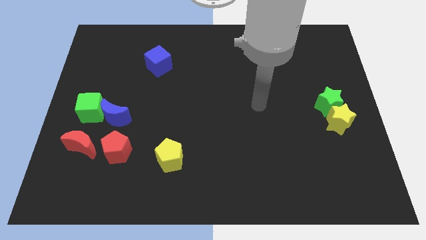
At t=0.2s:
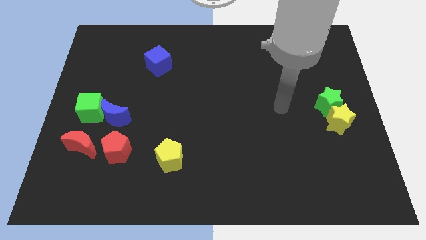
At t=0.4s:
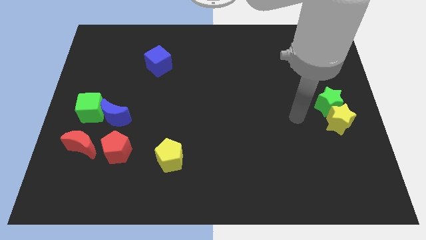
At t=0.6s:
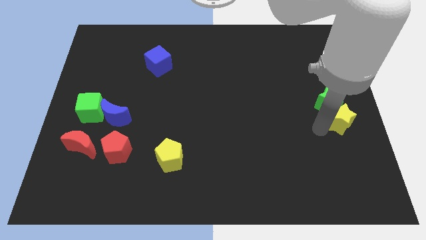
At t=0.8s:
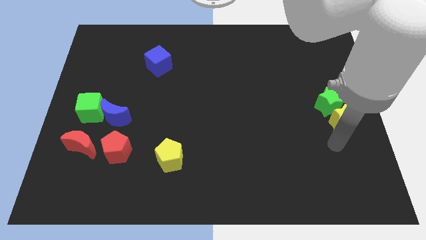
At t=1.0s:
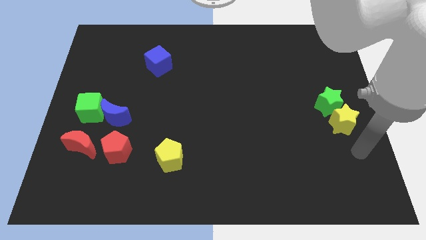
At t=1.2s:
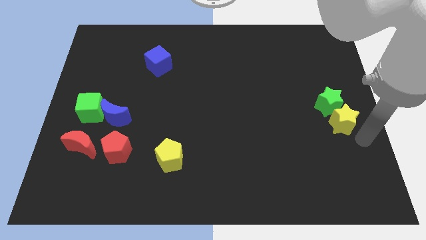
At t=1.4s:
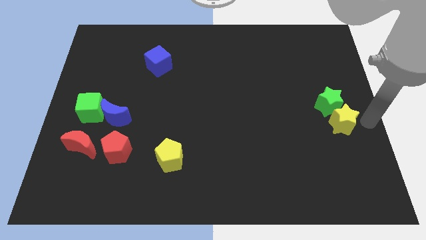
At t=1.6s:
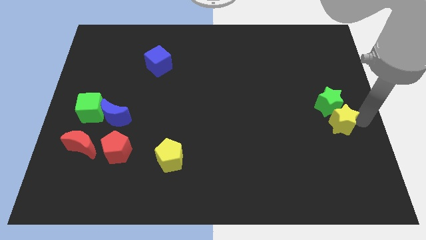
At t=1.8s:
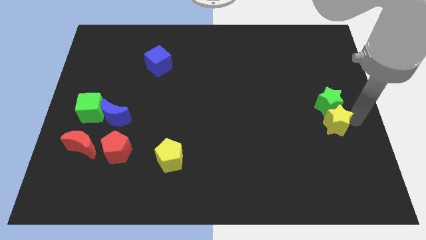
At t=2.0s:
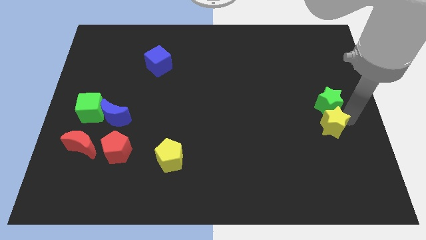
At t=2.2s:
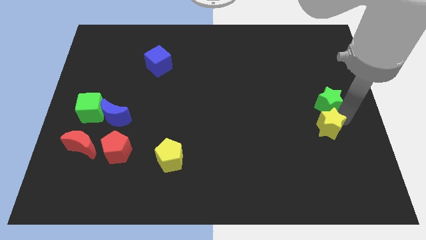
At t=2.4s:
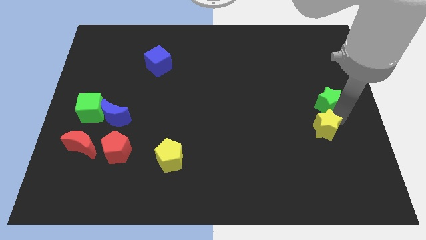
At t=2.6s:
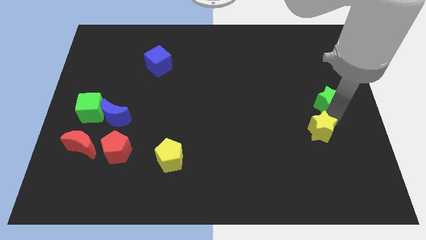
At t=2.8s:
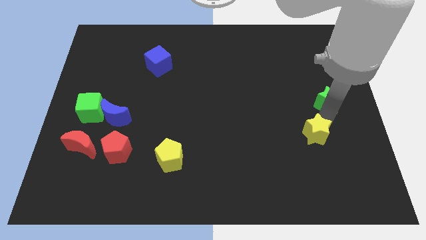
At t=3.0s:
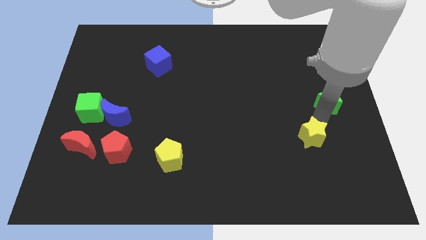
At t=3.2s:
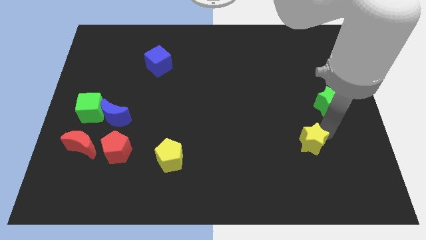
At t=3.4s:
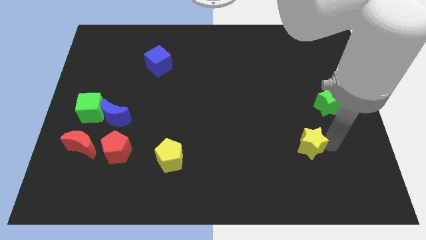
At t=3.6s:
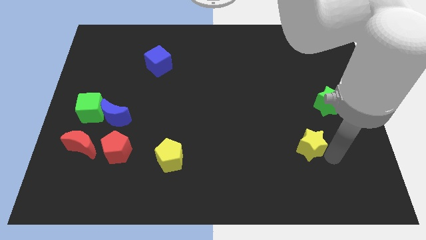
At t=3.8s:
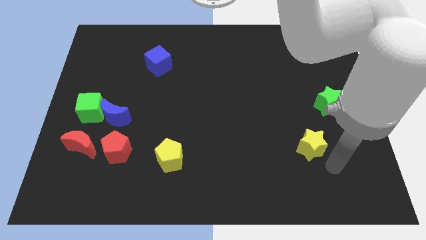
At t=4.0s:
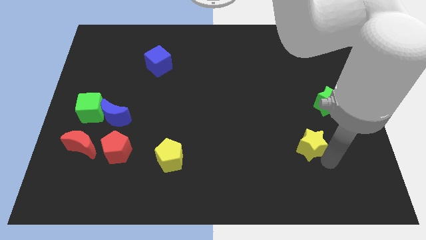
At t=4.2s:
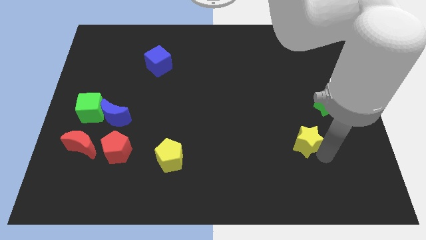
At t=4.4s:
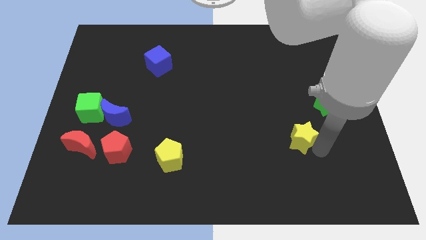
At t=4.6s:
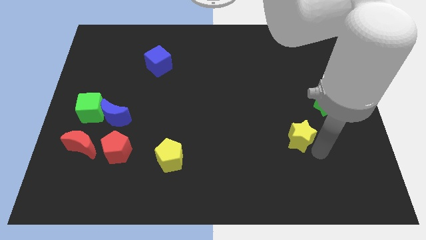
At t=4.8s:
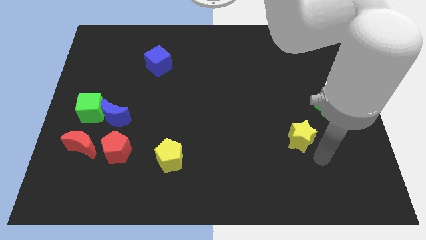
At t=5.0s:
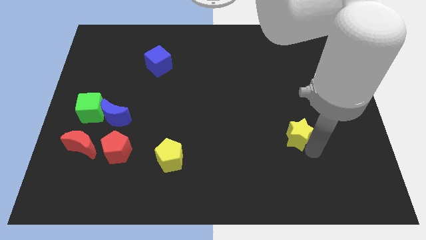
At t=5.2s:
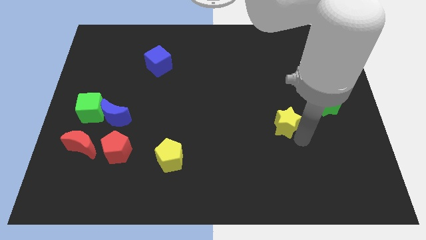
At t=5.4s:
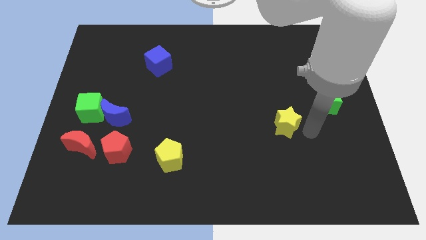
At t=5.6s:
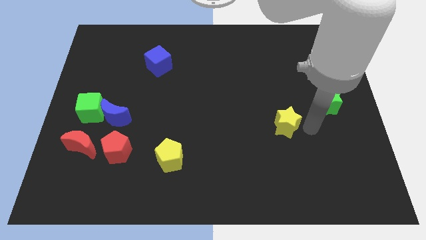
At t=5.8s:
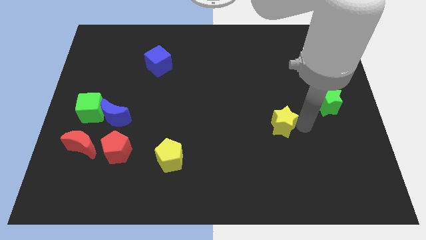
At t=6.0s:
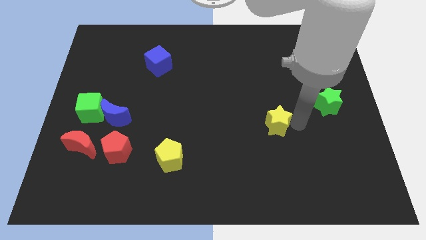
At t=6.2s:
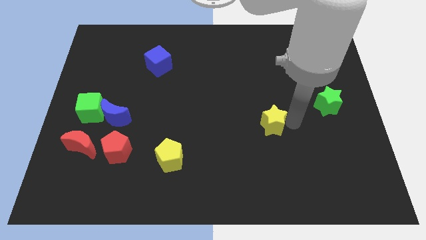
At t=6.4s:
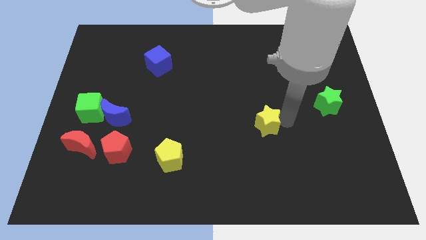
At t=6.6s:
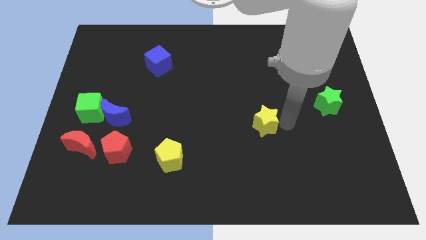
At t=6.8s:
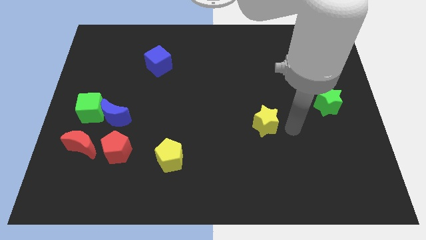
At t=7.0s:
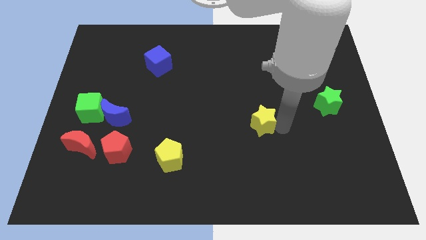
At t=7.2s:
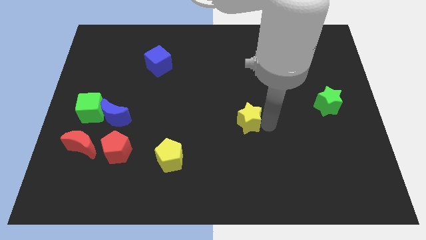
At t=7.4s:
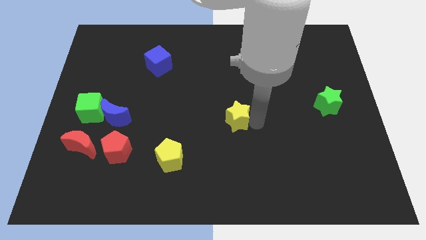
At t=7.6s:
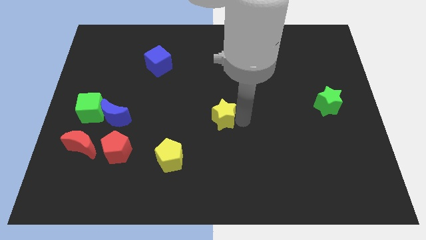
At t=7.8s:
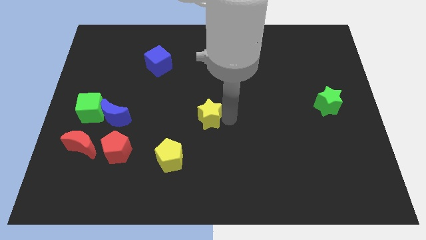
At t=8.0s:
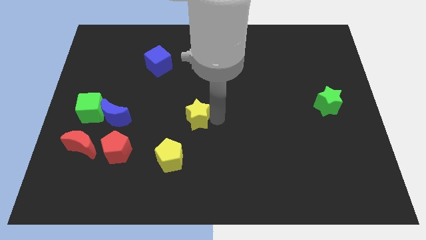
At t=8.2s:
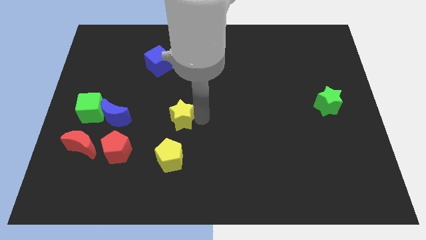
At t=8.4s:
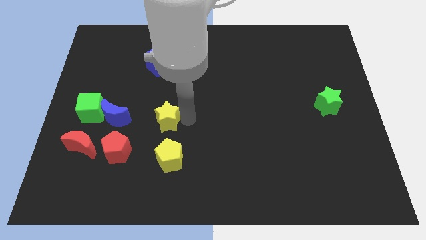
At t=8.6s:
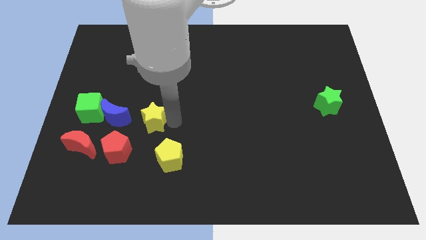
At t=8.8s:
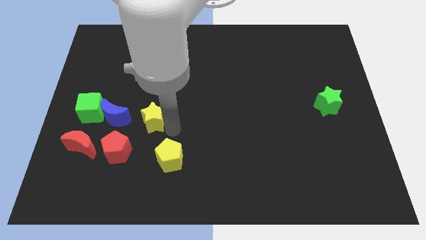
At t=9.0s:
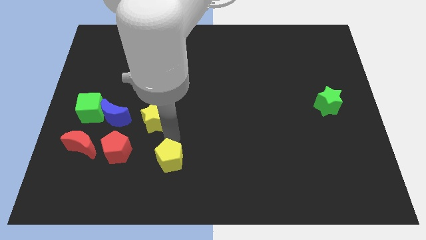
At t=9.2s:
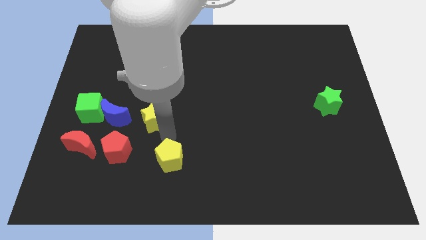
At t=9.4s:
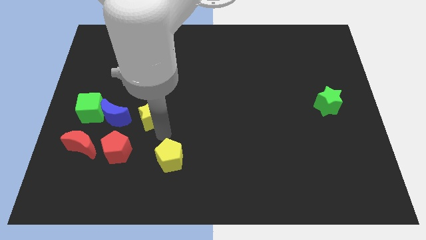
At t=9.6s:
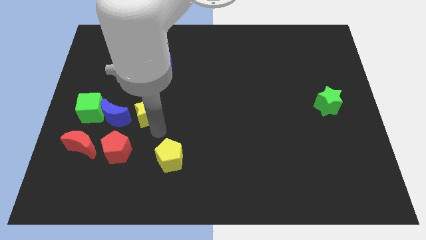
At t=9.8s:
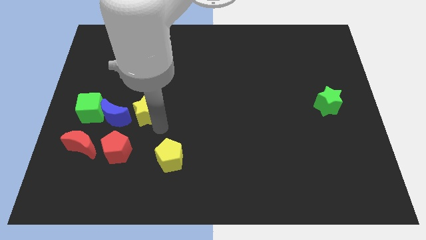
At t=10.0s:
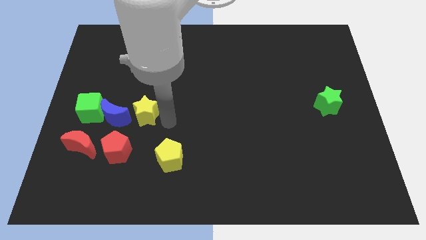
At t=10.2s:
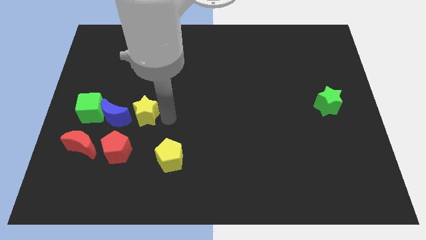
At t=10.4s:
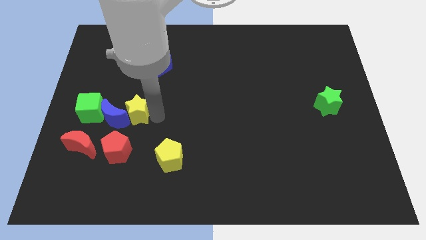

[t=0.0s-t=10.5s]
slide the yellow star towards the blue moon

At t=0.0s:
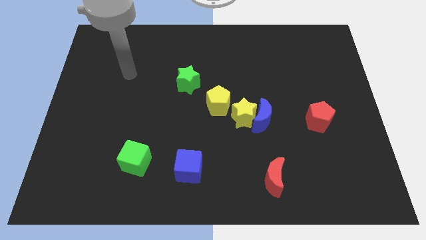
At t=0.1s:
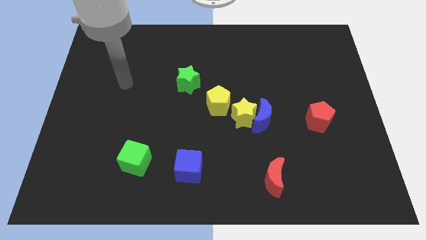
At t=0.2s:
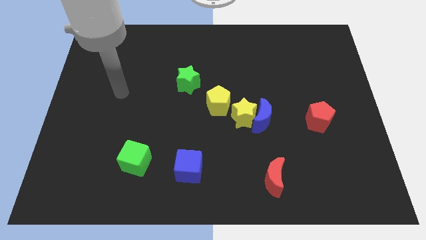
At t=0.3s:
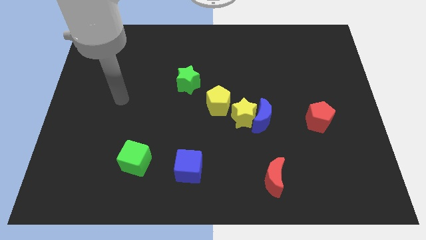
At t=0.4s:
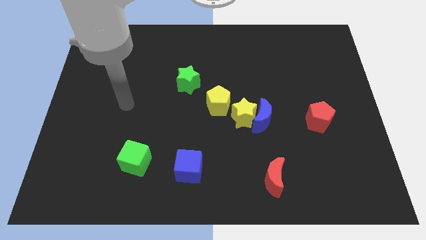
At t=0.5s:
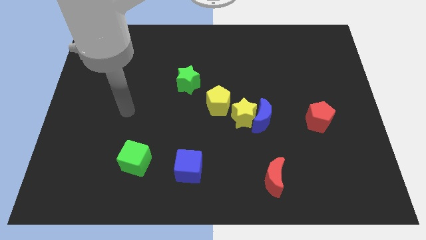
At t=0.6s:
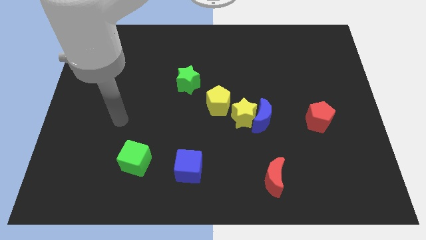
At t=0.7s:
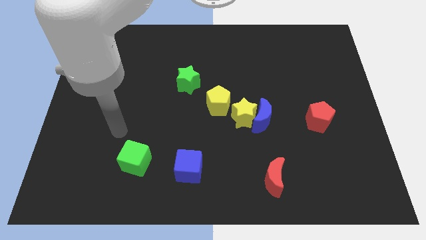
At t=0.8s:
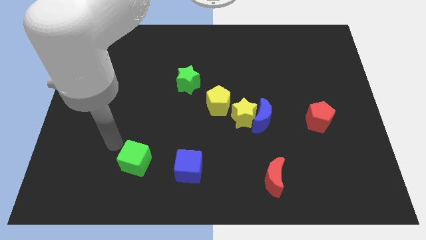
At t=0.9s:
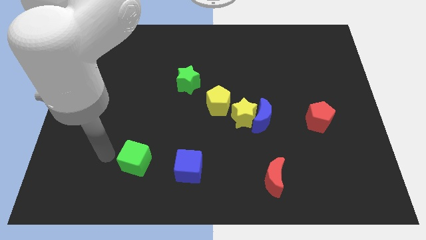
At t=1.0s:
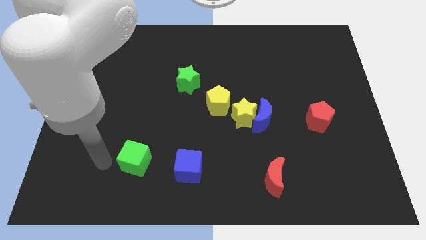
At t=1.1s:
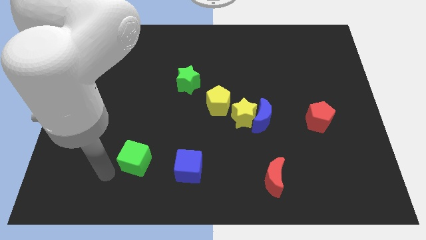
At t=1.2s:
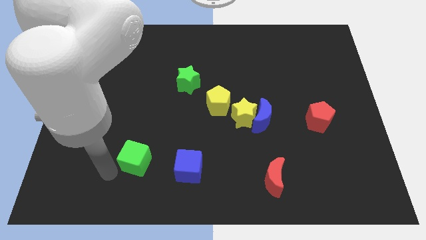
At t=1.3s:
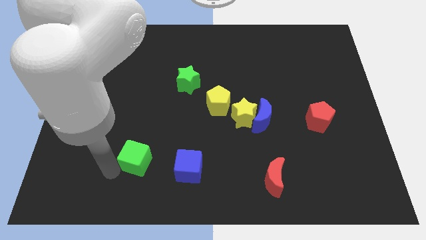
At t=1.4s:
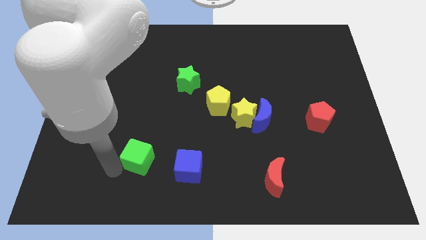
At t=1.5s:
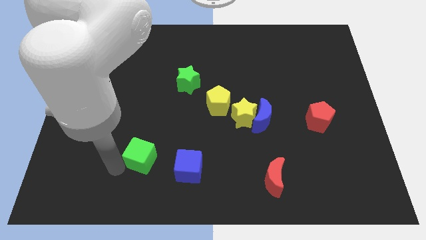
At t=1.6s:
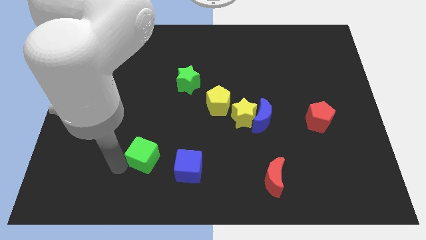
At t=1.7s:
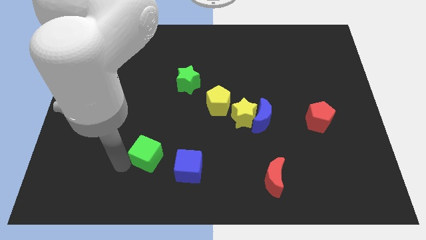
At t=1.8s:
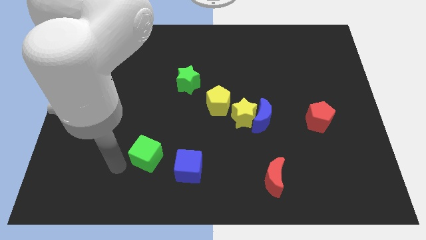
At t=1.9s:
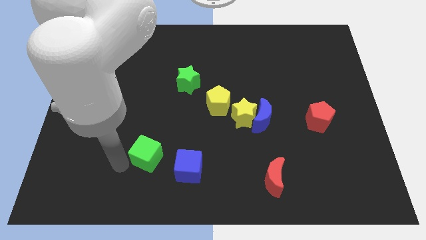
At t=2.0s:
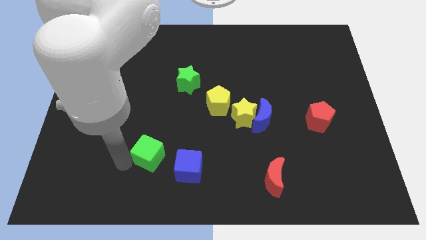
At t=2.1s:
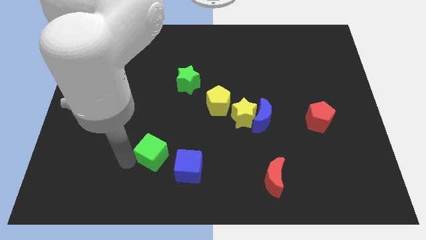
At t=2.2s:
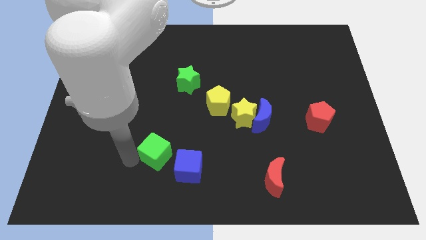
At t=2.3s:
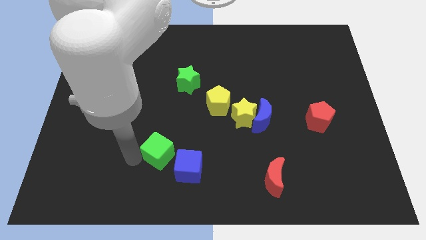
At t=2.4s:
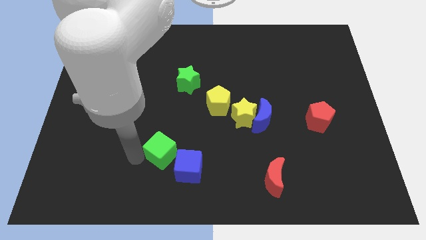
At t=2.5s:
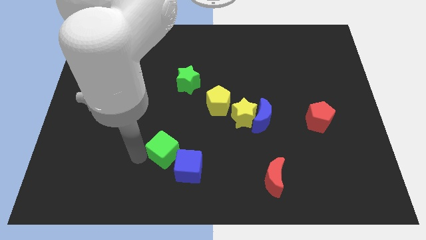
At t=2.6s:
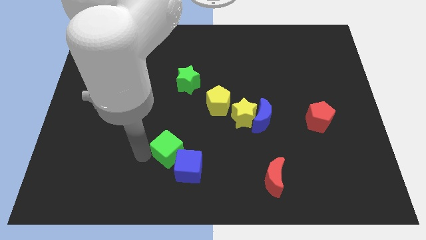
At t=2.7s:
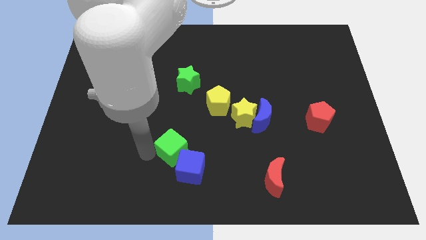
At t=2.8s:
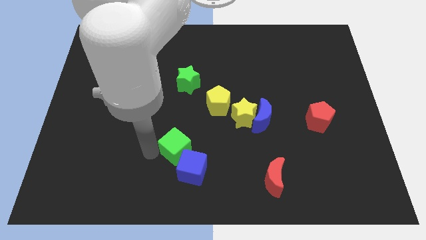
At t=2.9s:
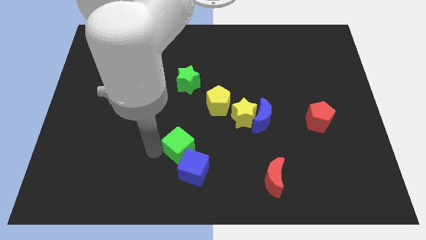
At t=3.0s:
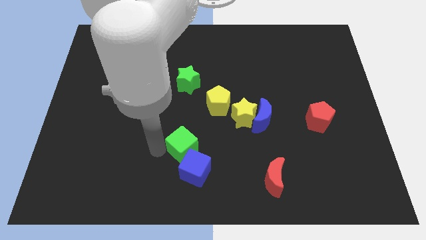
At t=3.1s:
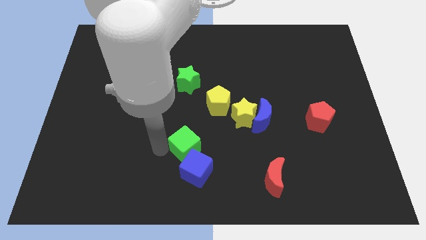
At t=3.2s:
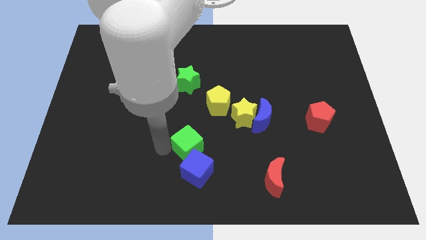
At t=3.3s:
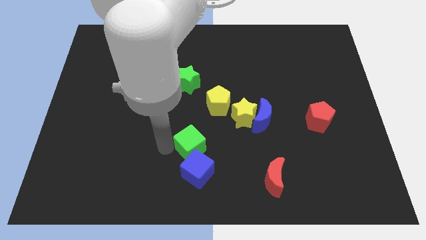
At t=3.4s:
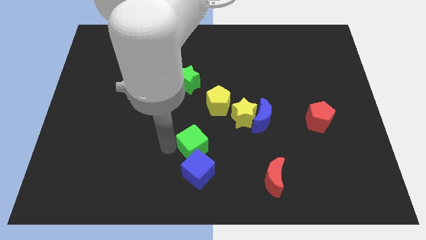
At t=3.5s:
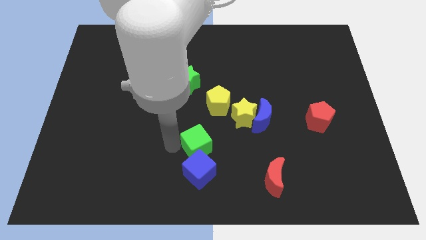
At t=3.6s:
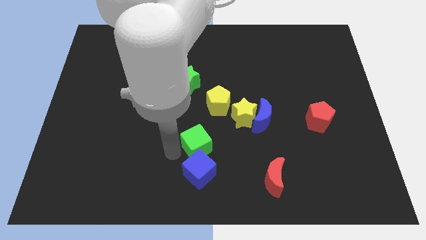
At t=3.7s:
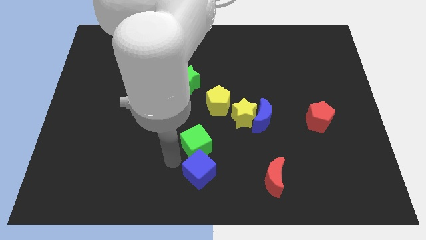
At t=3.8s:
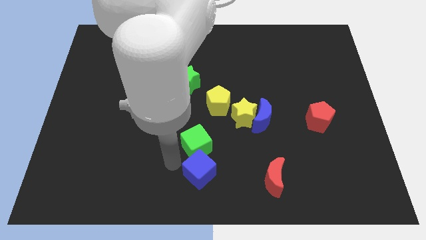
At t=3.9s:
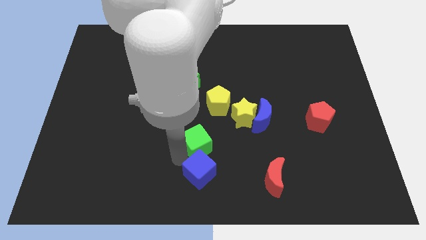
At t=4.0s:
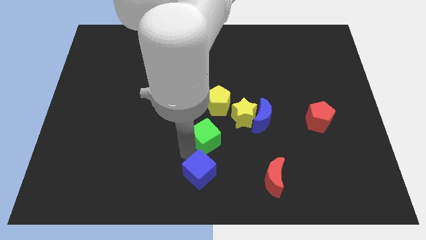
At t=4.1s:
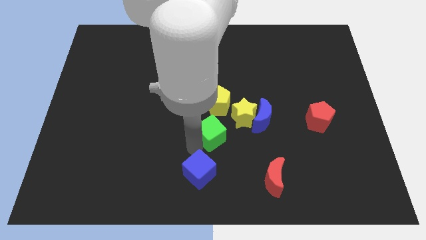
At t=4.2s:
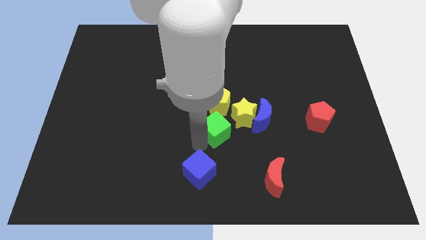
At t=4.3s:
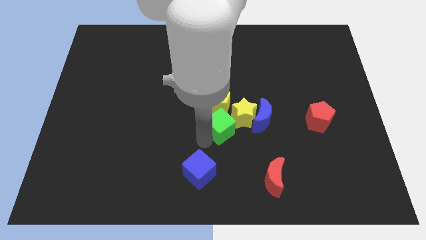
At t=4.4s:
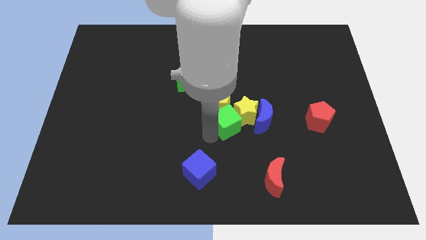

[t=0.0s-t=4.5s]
push the green cube towards the yellow star
